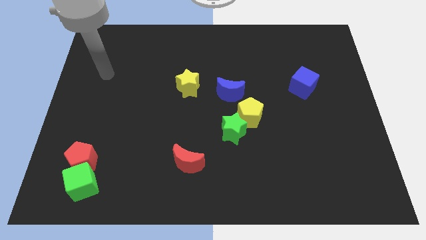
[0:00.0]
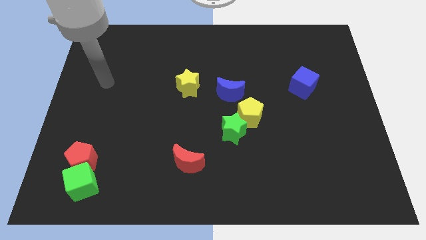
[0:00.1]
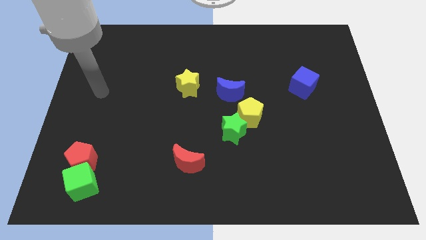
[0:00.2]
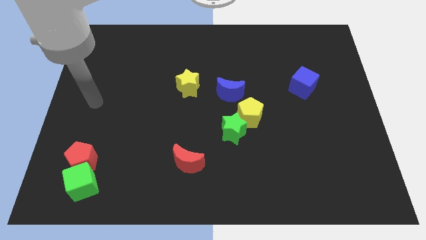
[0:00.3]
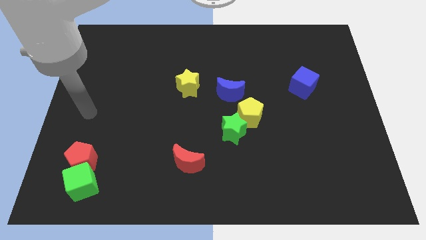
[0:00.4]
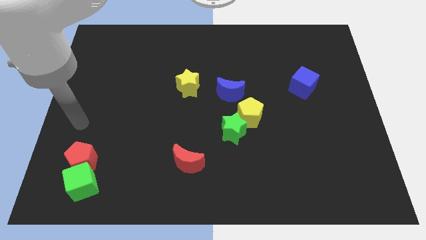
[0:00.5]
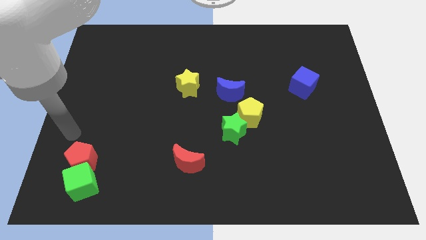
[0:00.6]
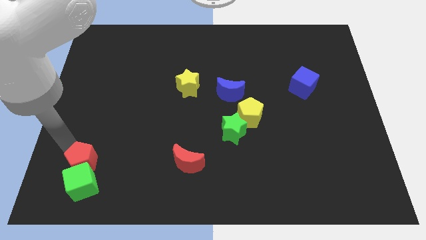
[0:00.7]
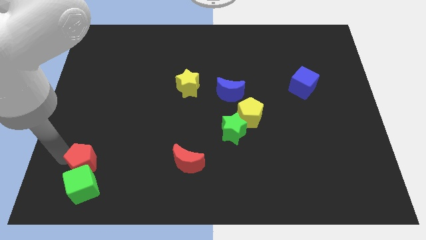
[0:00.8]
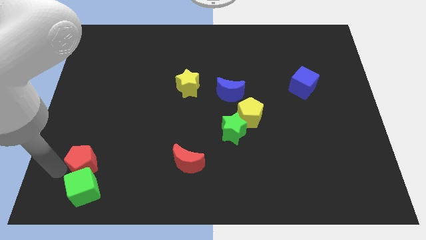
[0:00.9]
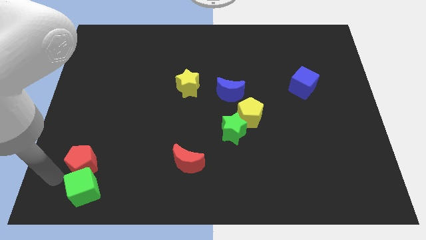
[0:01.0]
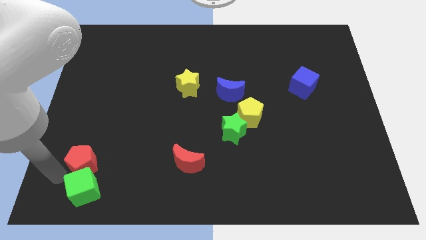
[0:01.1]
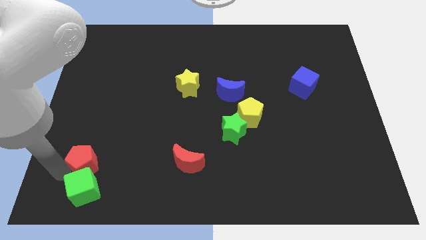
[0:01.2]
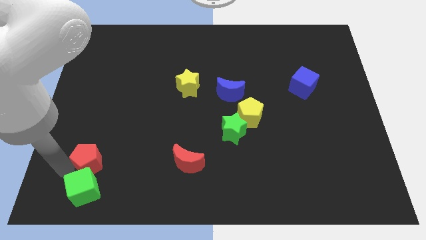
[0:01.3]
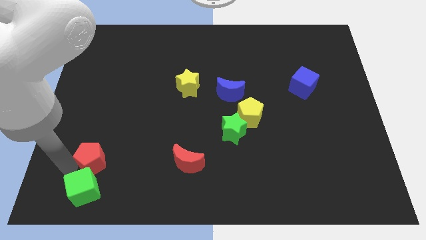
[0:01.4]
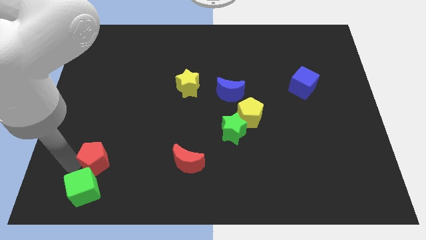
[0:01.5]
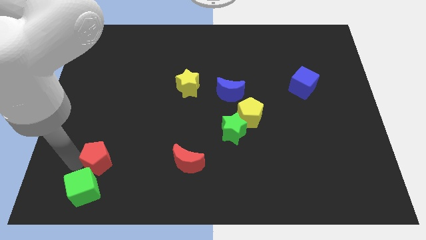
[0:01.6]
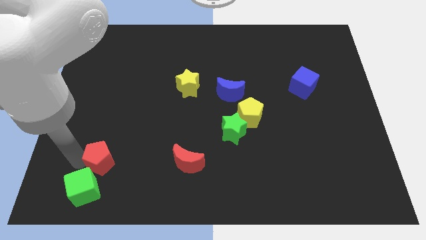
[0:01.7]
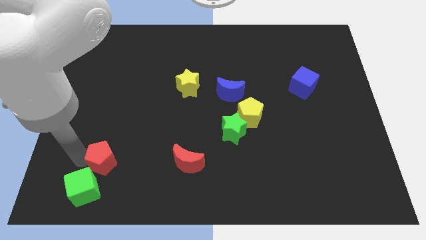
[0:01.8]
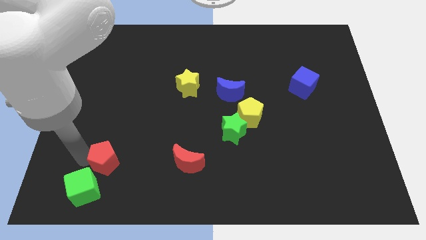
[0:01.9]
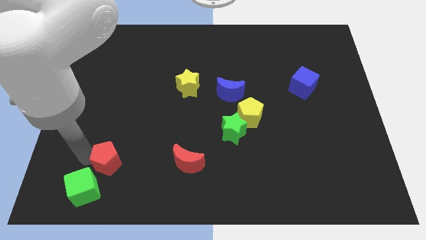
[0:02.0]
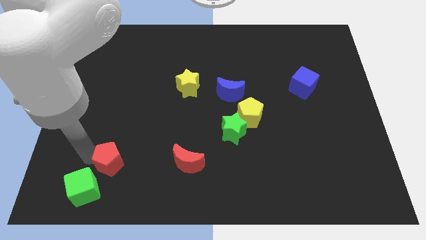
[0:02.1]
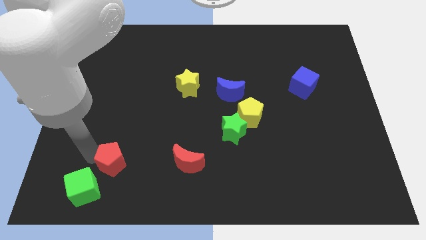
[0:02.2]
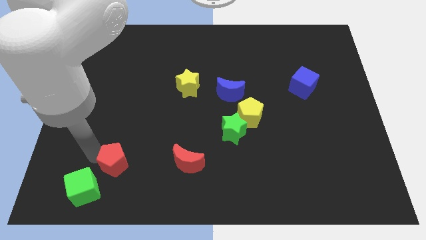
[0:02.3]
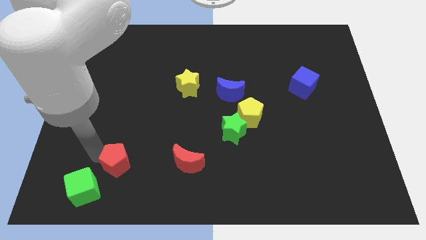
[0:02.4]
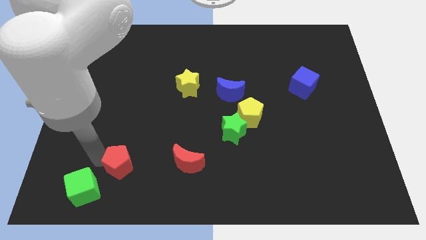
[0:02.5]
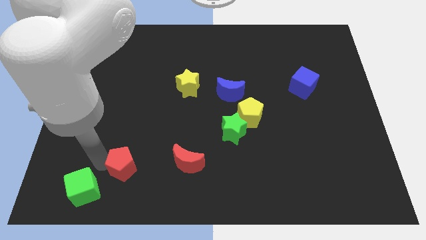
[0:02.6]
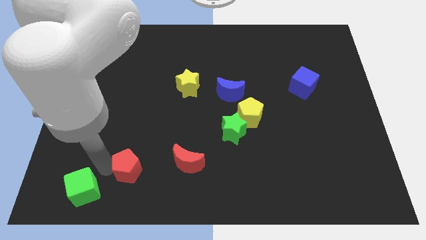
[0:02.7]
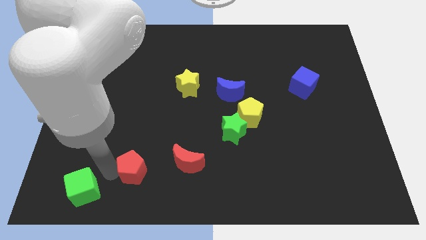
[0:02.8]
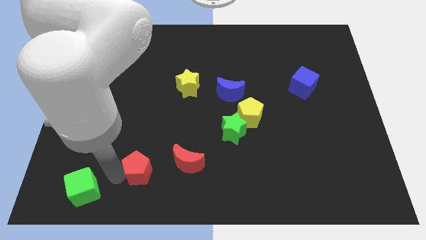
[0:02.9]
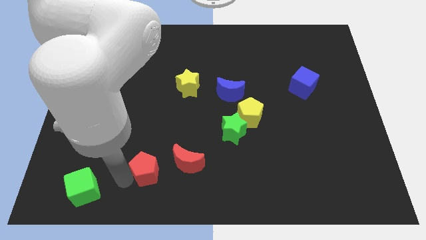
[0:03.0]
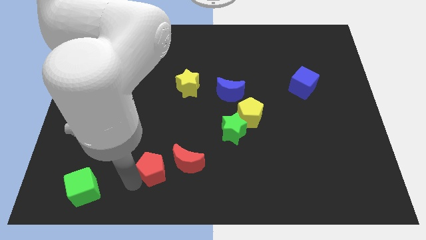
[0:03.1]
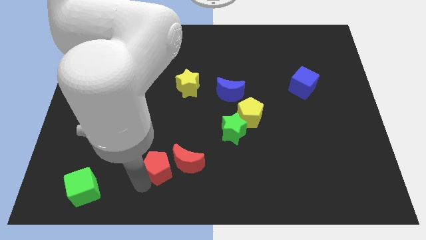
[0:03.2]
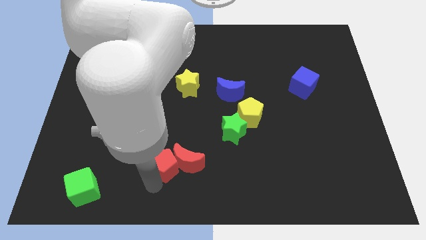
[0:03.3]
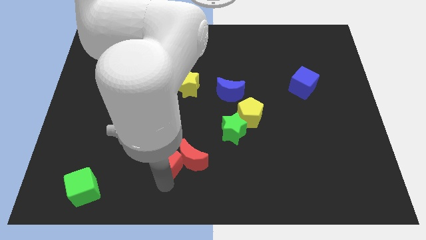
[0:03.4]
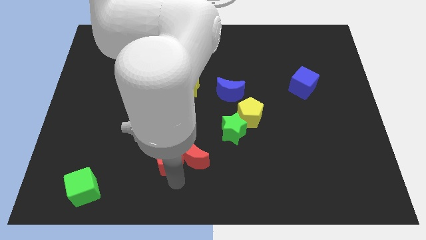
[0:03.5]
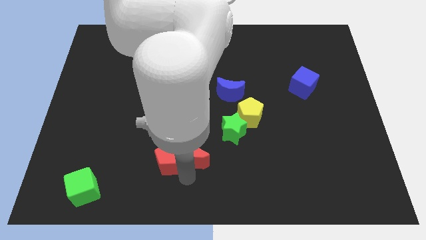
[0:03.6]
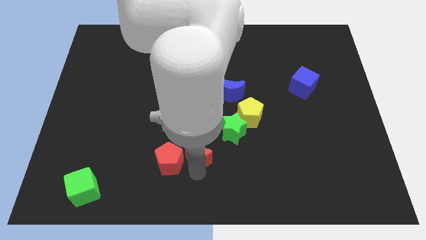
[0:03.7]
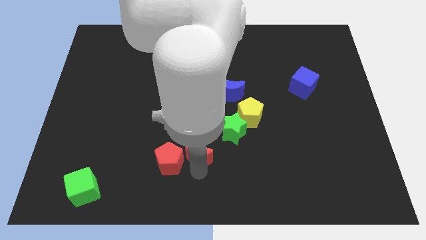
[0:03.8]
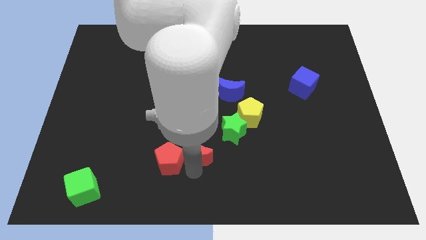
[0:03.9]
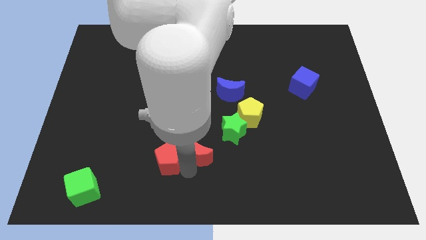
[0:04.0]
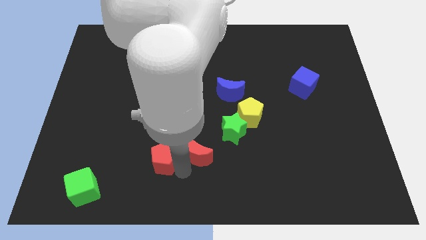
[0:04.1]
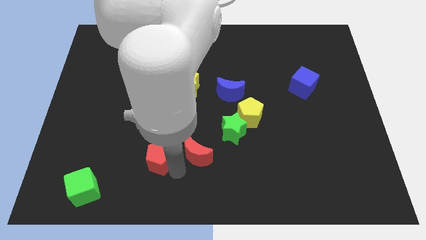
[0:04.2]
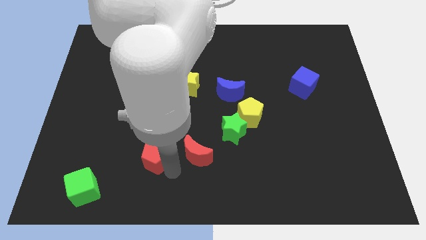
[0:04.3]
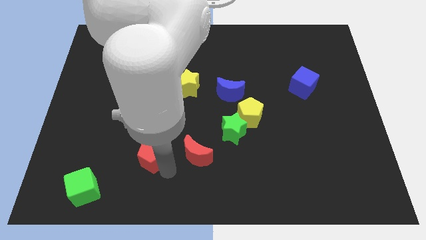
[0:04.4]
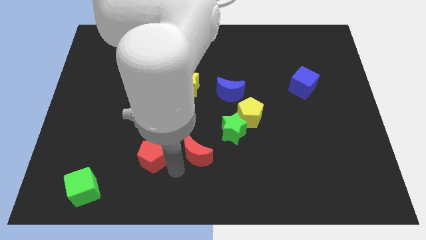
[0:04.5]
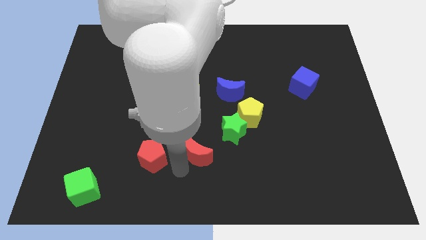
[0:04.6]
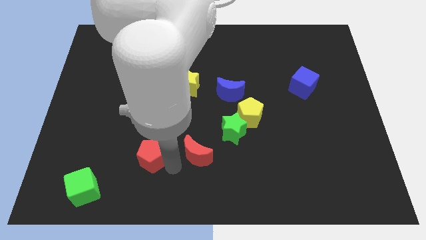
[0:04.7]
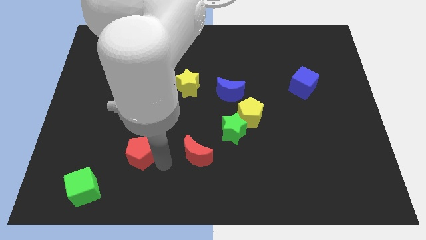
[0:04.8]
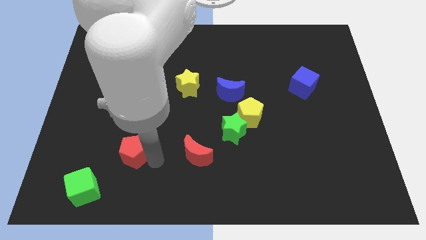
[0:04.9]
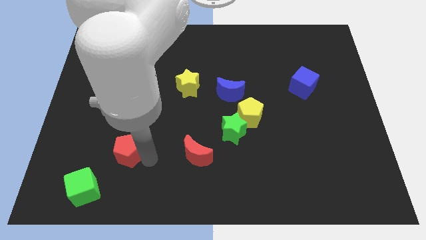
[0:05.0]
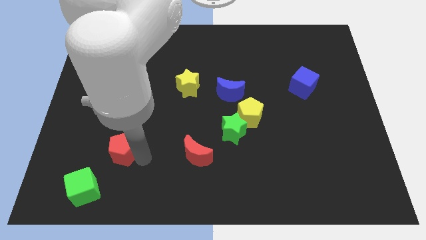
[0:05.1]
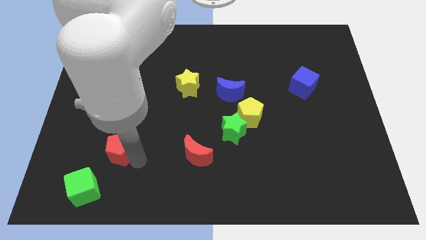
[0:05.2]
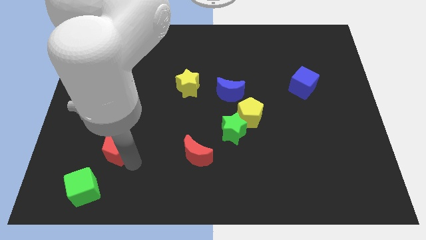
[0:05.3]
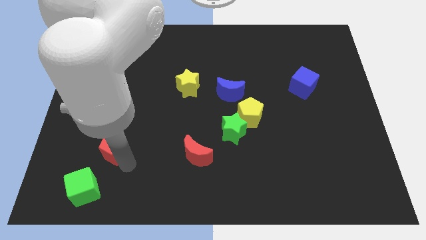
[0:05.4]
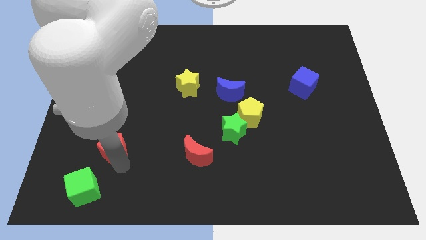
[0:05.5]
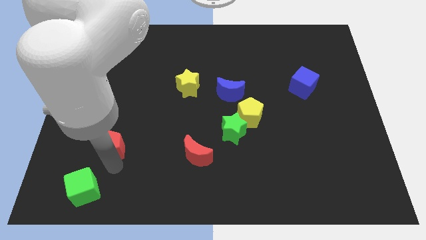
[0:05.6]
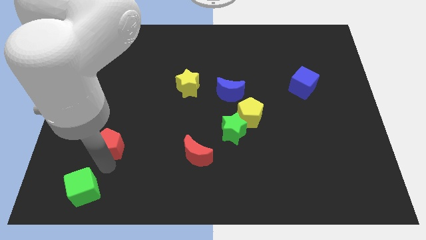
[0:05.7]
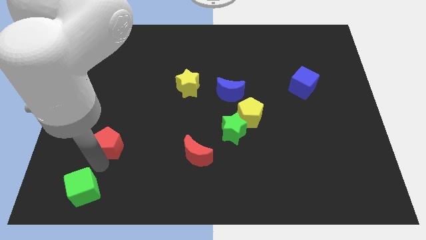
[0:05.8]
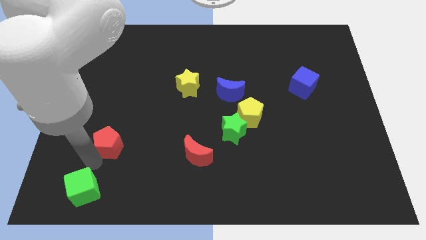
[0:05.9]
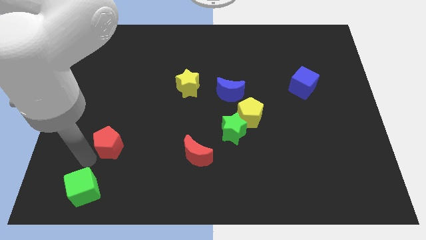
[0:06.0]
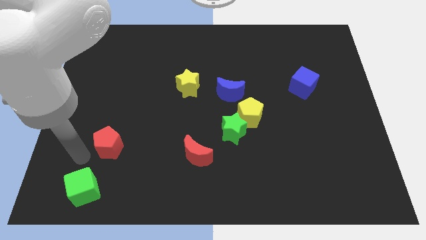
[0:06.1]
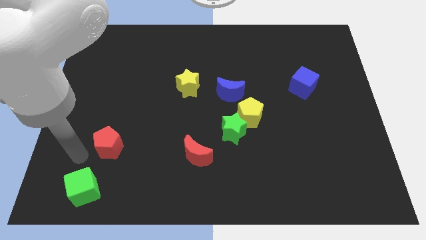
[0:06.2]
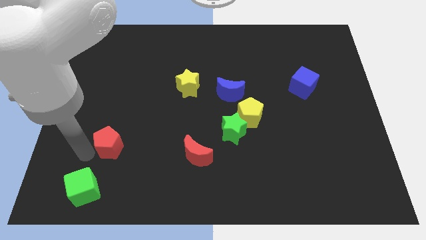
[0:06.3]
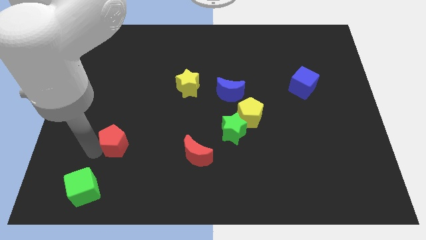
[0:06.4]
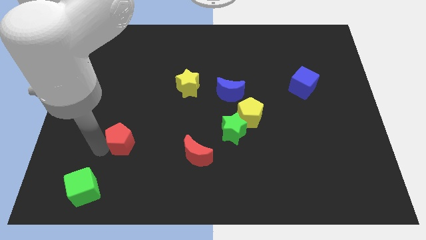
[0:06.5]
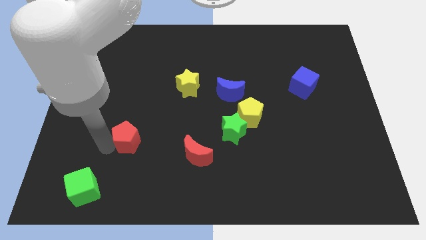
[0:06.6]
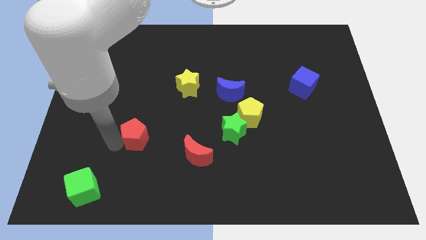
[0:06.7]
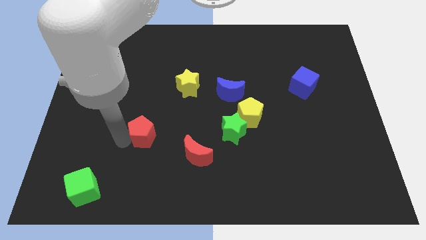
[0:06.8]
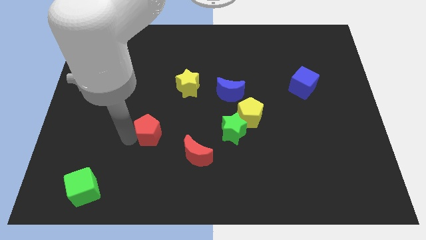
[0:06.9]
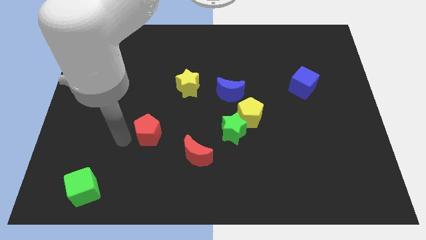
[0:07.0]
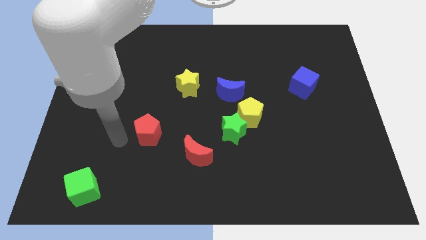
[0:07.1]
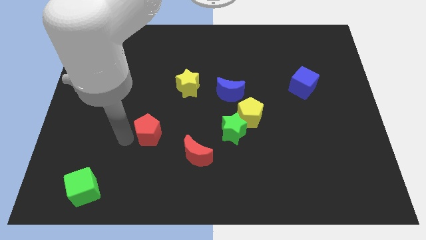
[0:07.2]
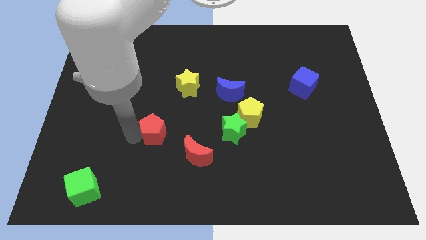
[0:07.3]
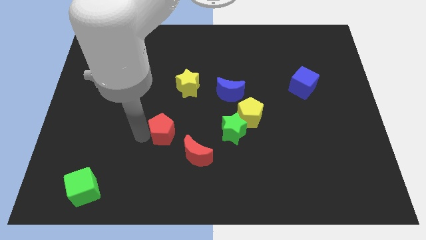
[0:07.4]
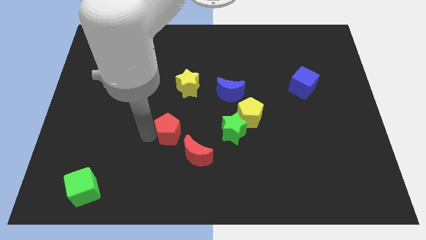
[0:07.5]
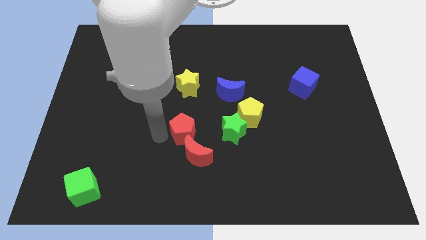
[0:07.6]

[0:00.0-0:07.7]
put the red pentagon to the middle
